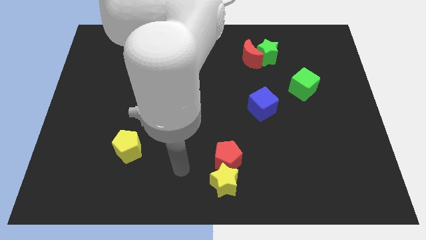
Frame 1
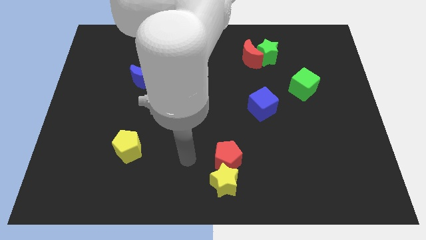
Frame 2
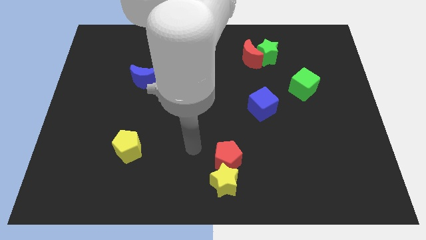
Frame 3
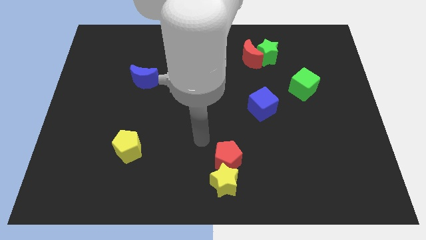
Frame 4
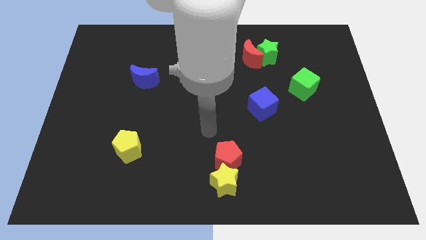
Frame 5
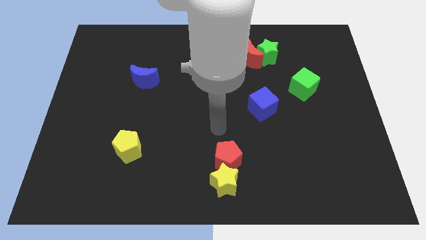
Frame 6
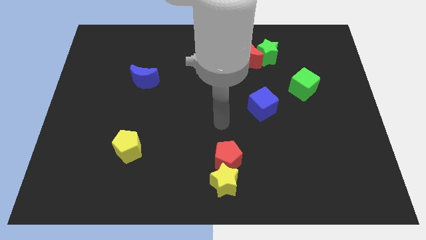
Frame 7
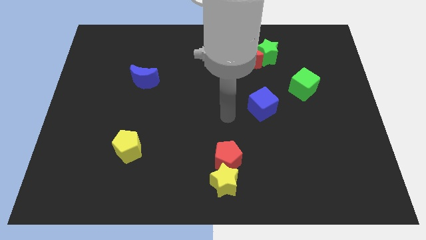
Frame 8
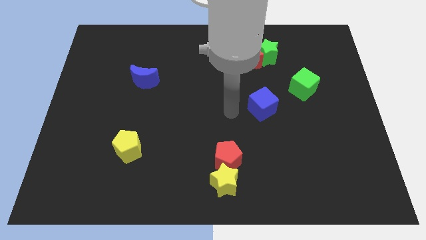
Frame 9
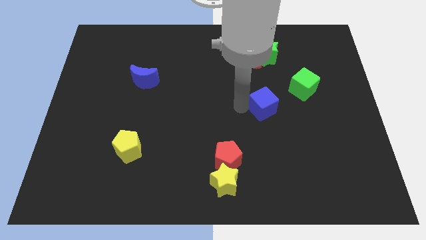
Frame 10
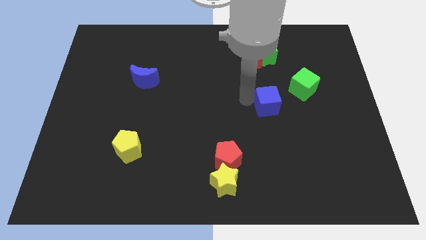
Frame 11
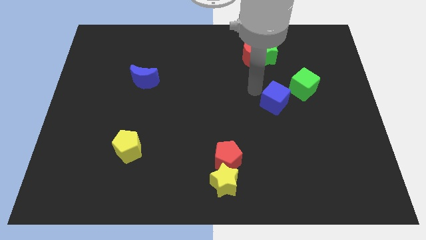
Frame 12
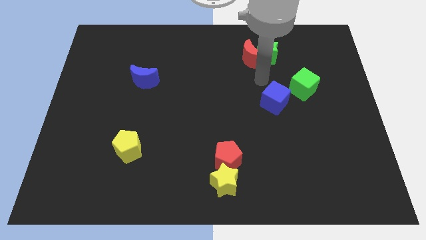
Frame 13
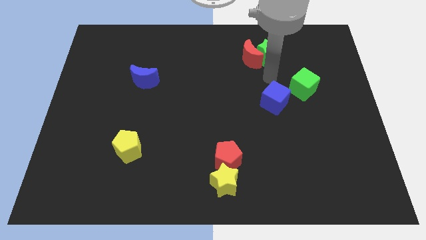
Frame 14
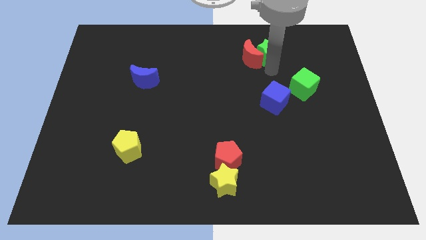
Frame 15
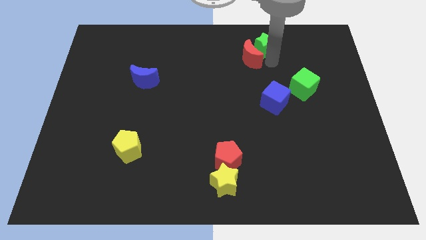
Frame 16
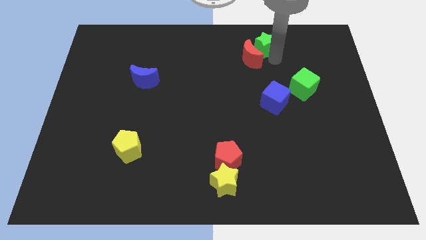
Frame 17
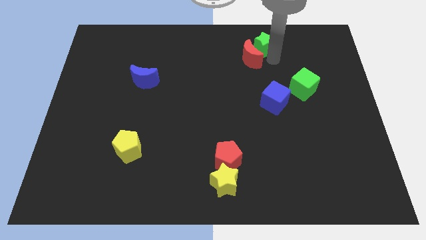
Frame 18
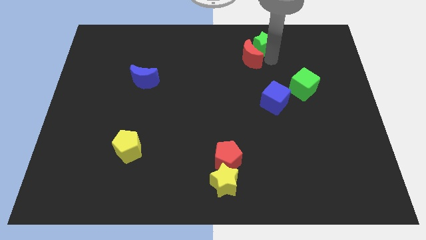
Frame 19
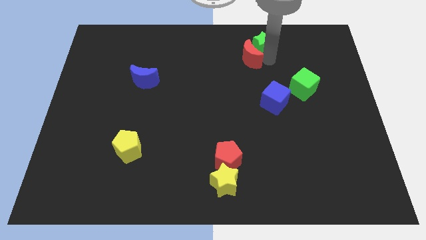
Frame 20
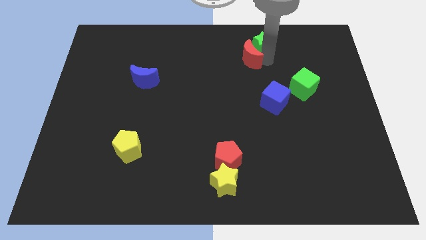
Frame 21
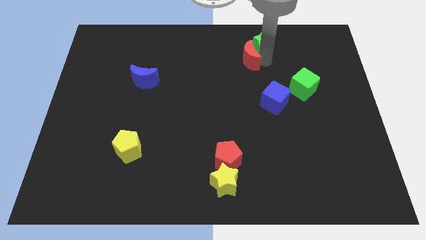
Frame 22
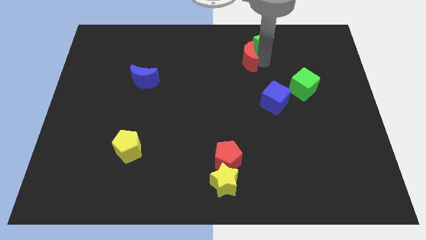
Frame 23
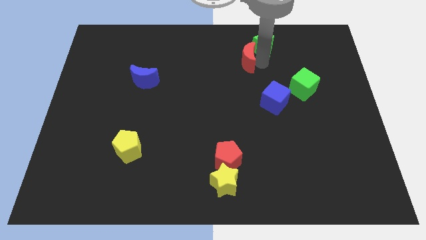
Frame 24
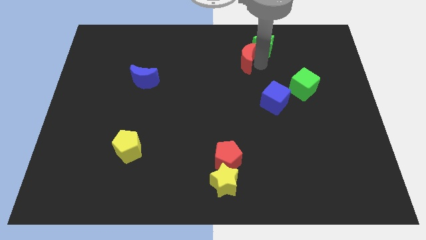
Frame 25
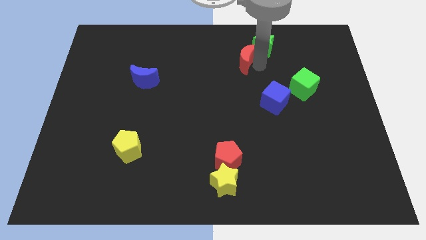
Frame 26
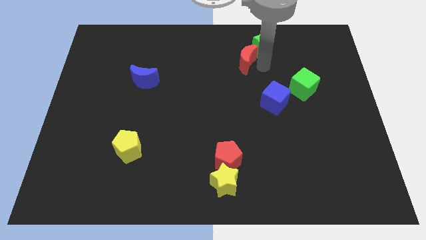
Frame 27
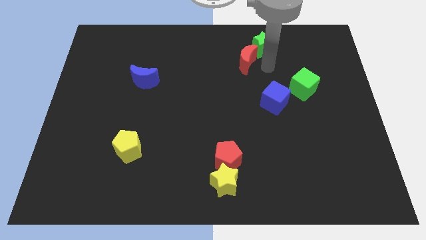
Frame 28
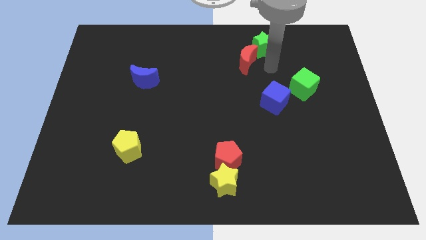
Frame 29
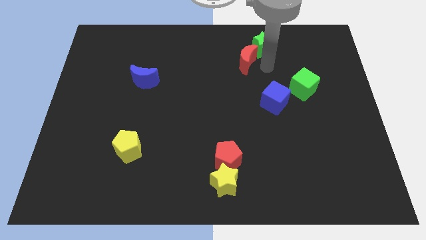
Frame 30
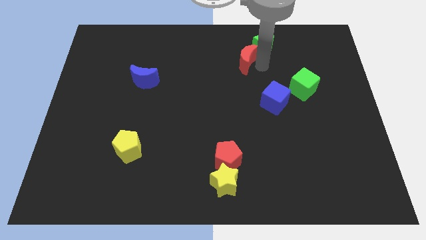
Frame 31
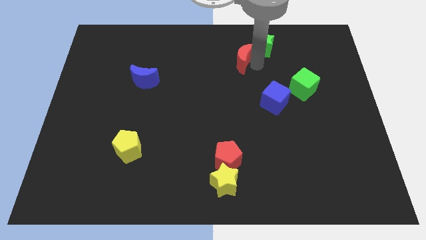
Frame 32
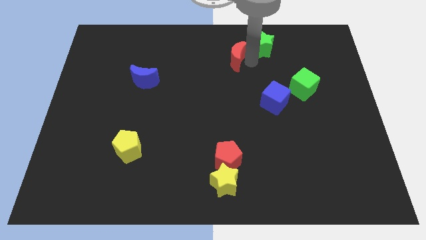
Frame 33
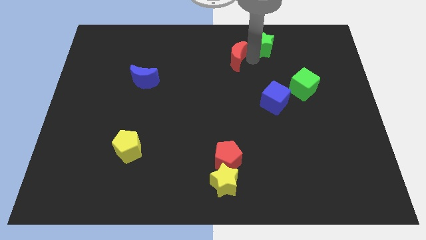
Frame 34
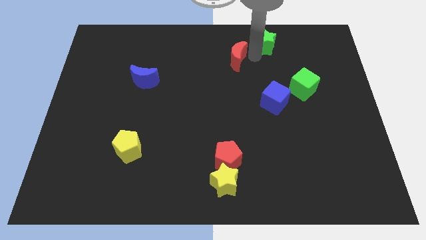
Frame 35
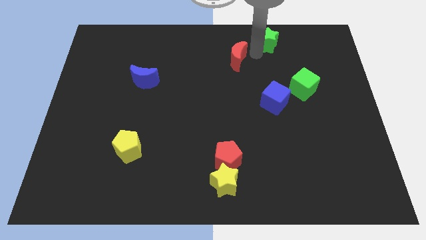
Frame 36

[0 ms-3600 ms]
separate the red moon from the green star

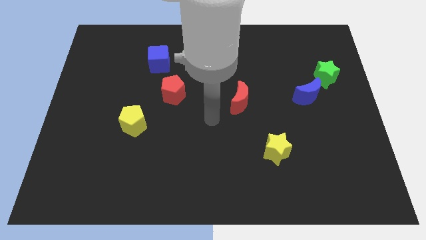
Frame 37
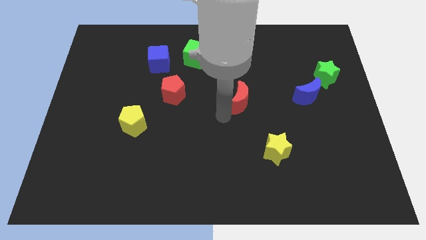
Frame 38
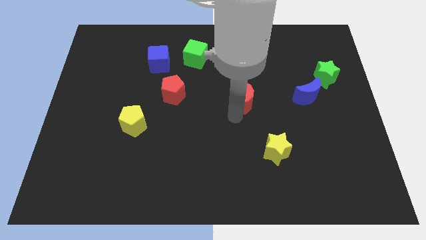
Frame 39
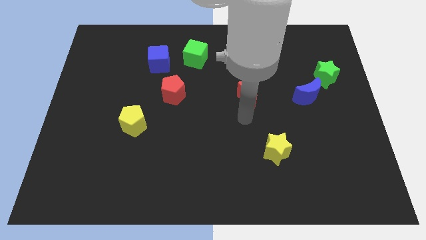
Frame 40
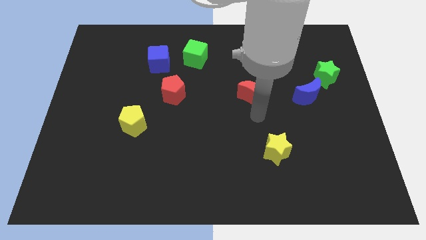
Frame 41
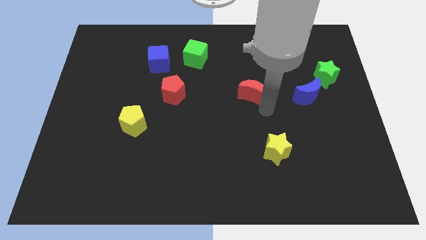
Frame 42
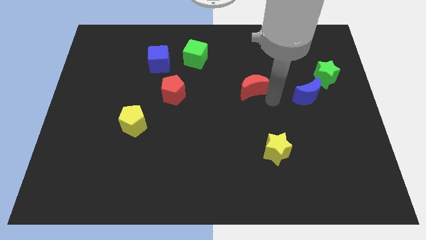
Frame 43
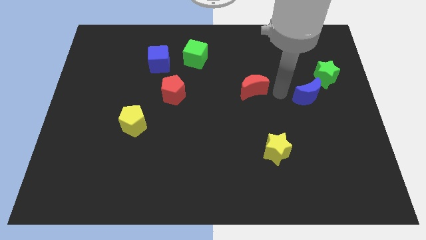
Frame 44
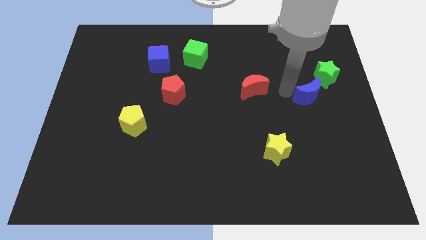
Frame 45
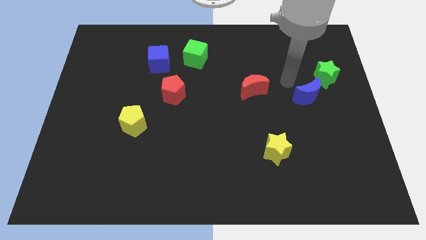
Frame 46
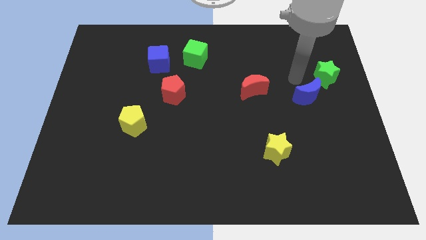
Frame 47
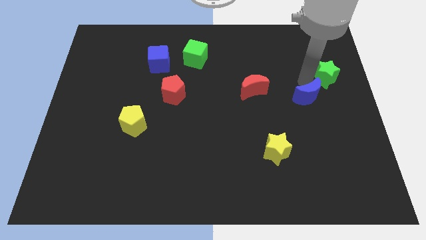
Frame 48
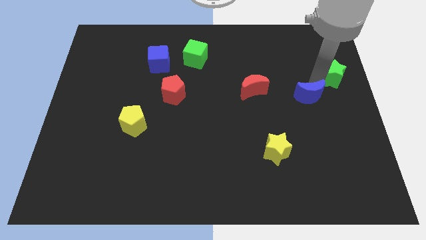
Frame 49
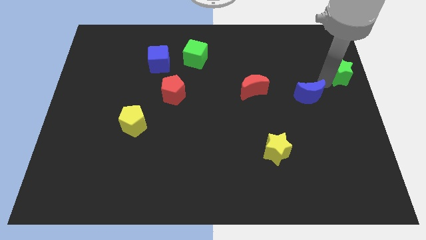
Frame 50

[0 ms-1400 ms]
pull the blue moon apart from the green star

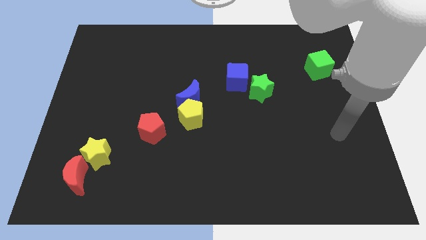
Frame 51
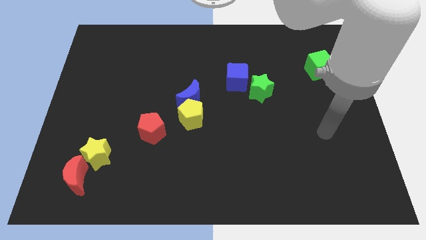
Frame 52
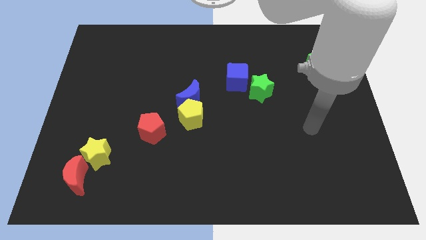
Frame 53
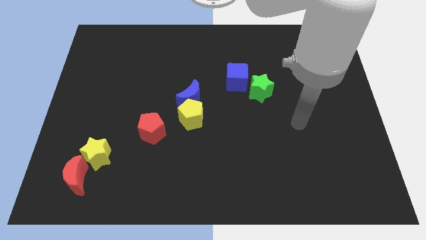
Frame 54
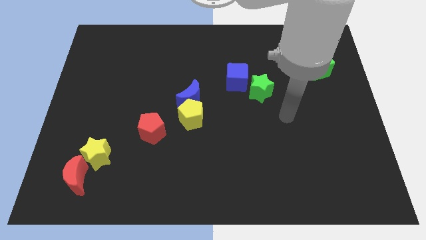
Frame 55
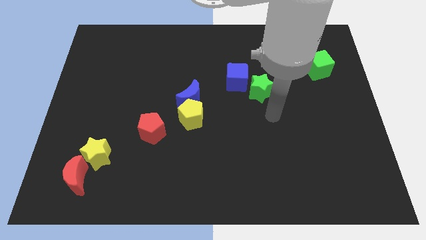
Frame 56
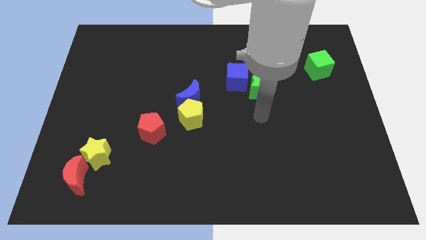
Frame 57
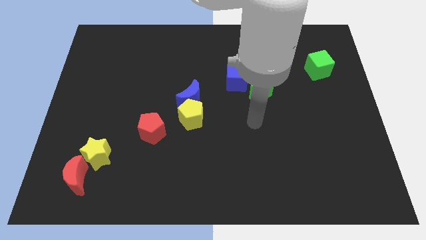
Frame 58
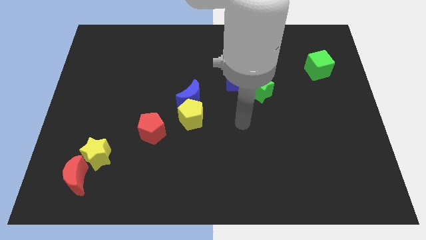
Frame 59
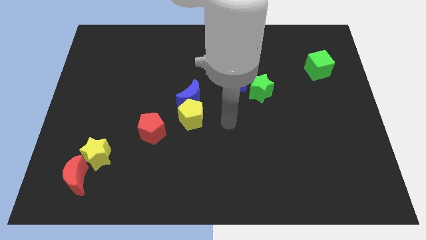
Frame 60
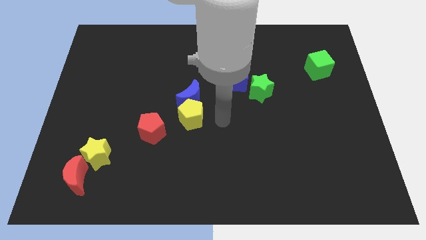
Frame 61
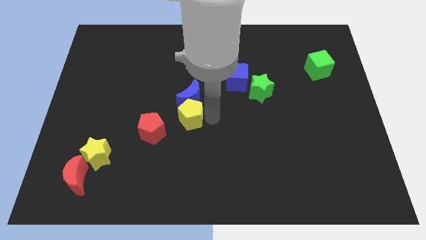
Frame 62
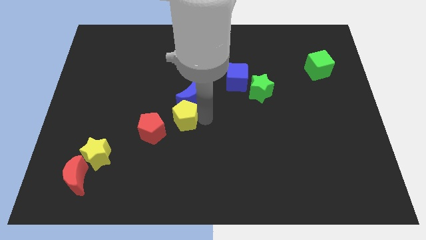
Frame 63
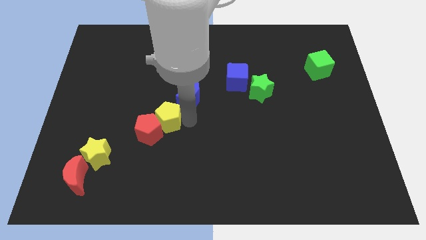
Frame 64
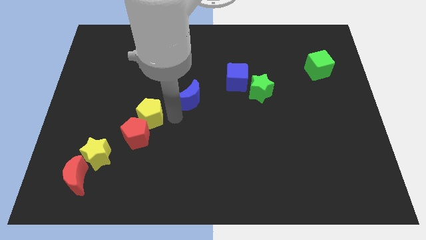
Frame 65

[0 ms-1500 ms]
move the blue moon away from the yellow pentagon

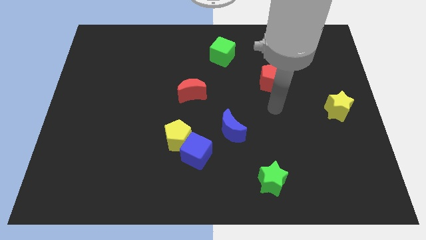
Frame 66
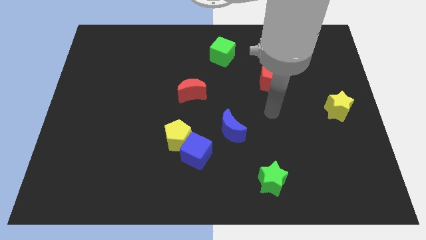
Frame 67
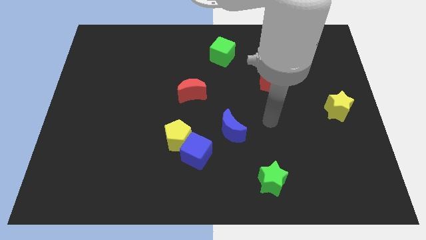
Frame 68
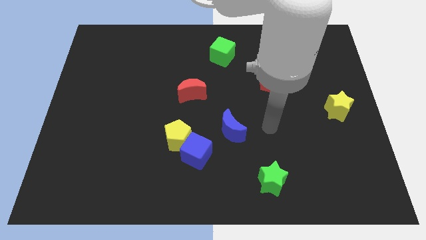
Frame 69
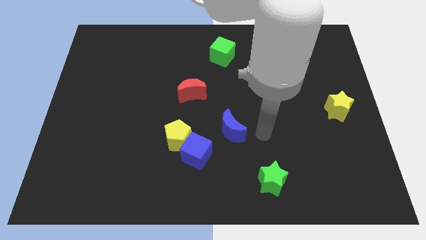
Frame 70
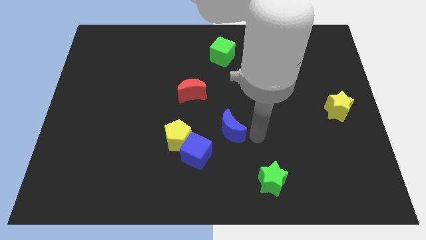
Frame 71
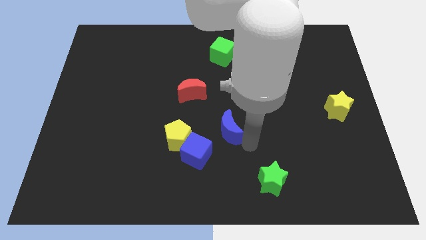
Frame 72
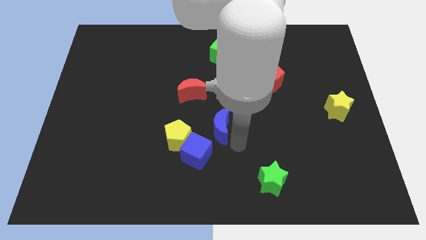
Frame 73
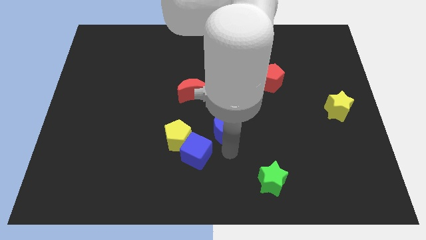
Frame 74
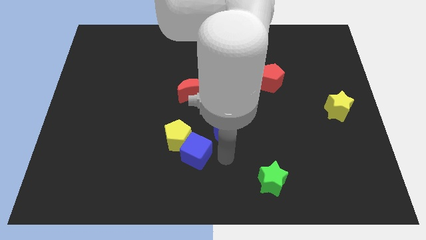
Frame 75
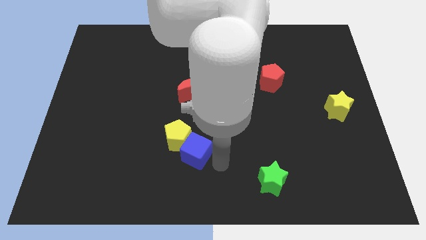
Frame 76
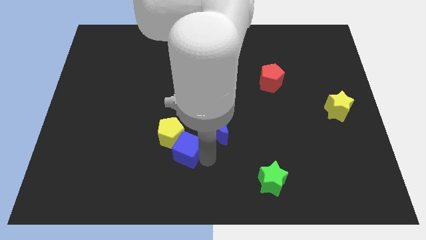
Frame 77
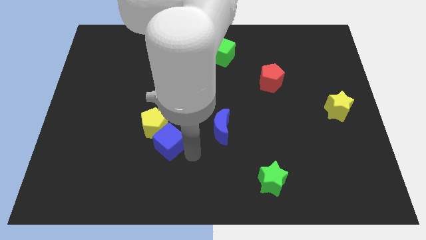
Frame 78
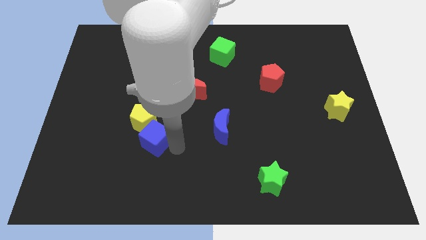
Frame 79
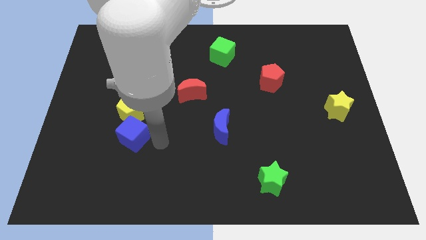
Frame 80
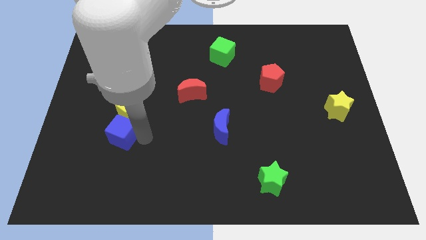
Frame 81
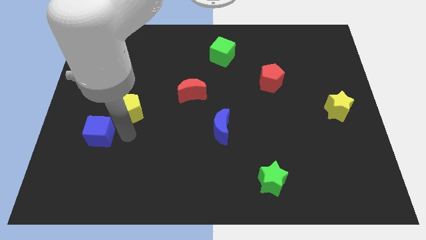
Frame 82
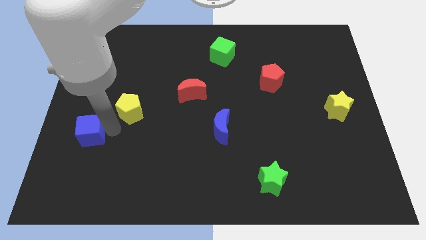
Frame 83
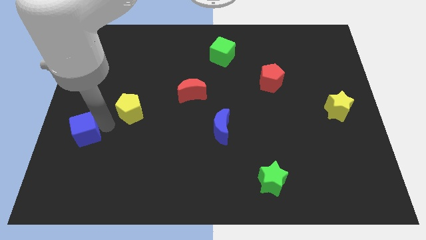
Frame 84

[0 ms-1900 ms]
separate the yellow pentagon from the blue cube

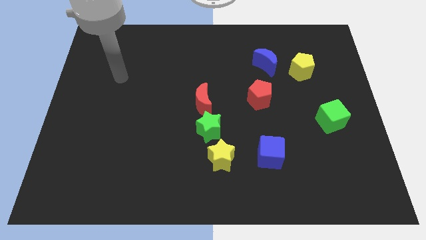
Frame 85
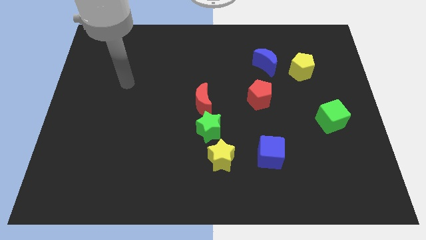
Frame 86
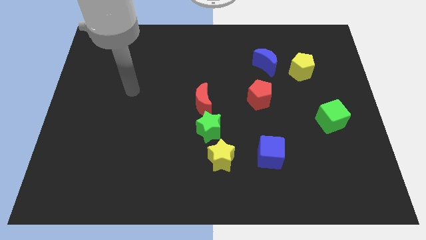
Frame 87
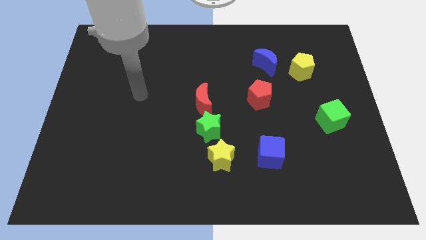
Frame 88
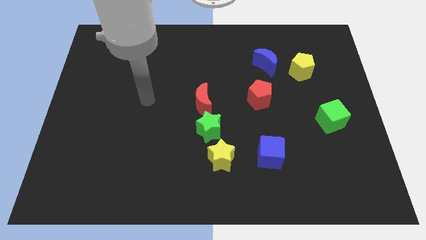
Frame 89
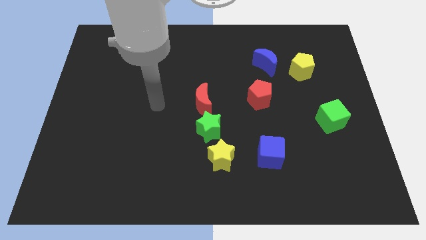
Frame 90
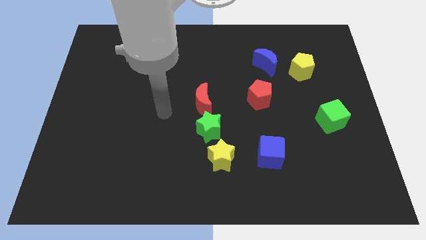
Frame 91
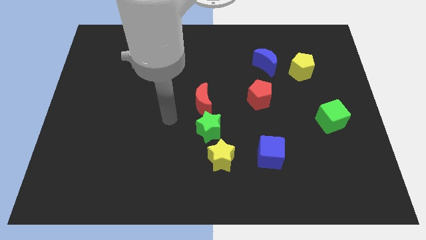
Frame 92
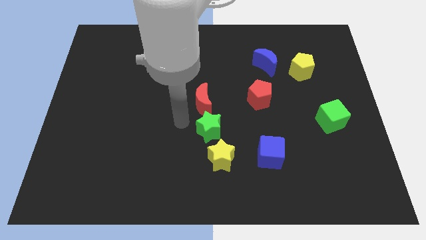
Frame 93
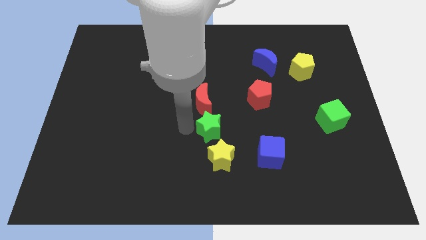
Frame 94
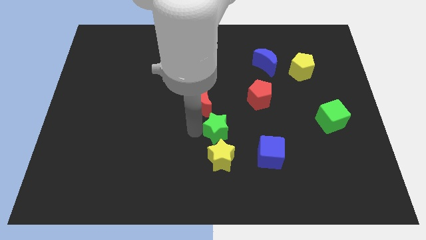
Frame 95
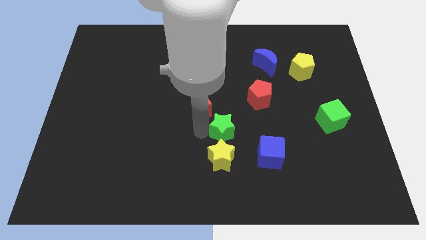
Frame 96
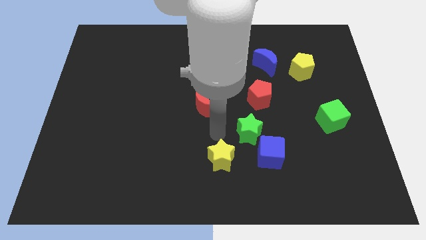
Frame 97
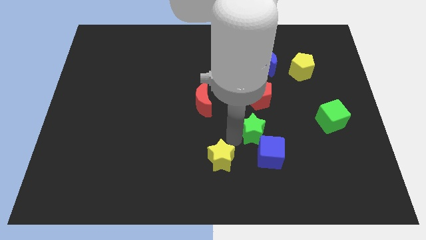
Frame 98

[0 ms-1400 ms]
pull the yellow star apart from the green star
